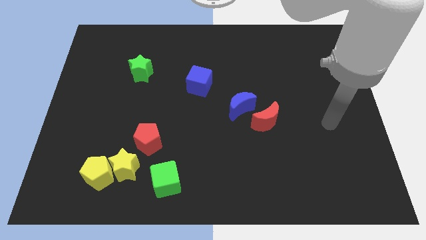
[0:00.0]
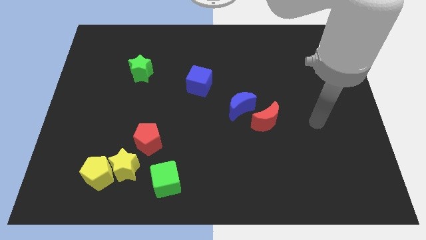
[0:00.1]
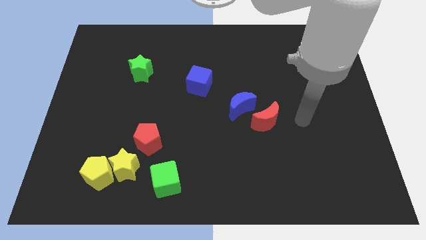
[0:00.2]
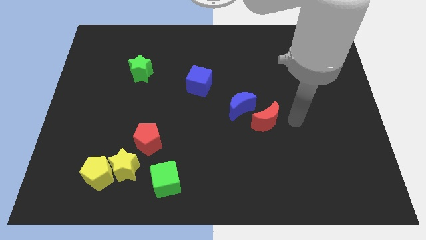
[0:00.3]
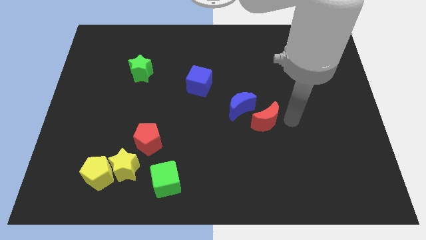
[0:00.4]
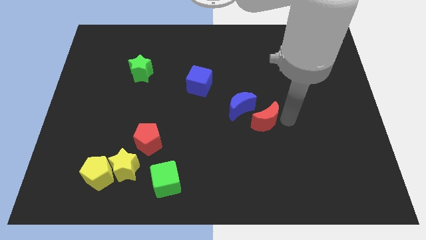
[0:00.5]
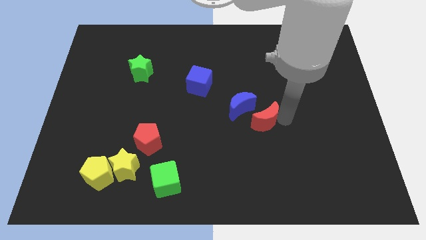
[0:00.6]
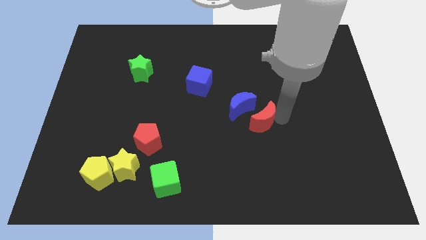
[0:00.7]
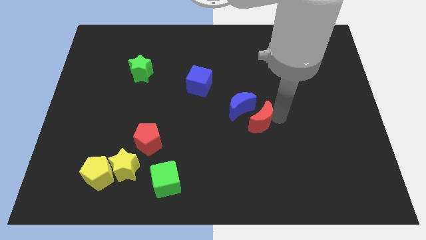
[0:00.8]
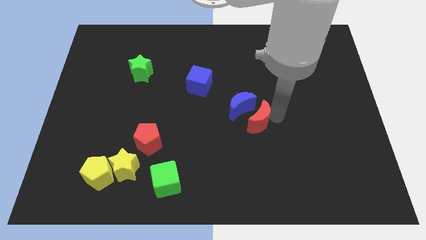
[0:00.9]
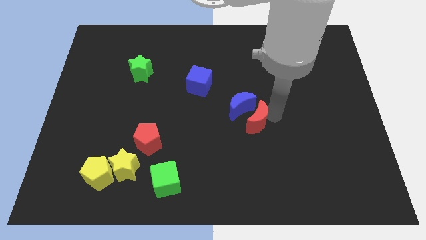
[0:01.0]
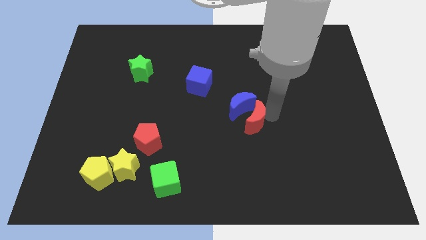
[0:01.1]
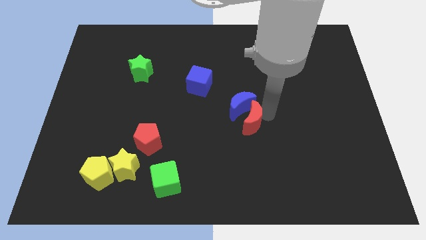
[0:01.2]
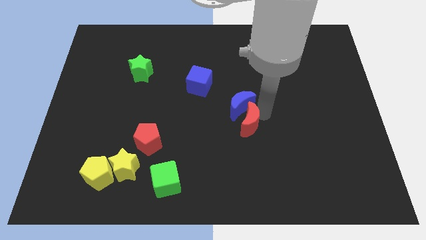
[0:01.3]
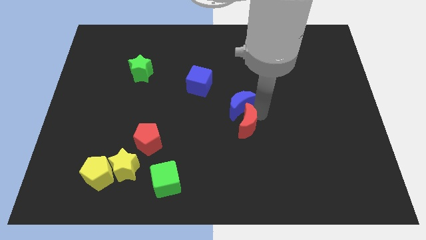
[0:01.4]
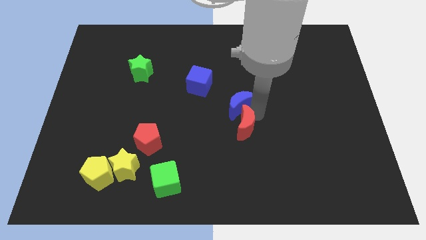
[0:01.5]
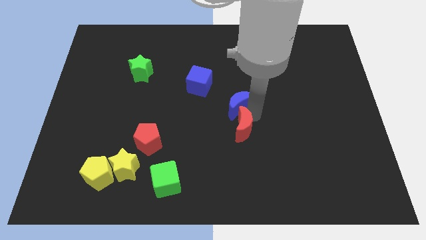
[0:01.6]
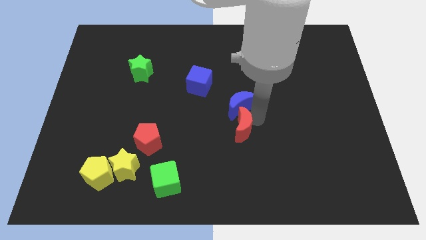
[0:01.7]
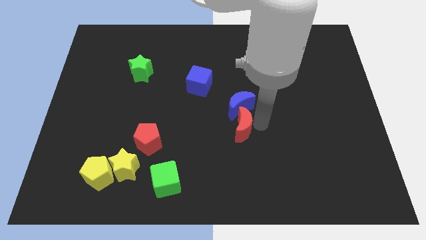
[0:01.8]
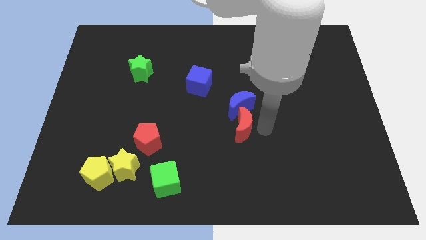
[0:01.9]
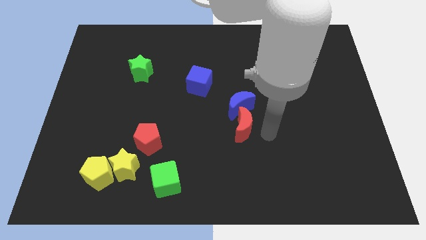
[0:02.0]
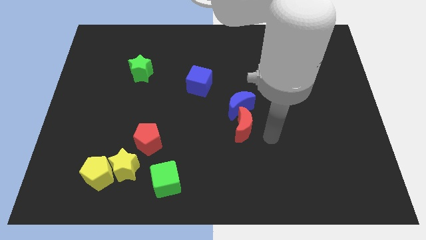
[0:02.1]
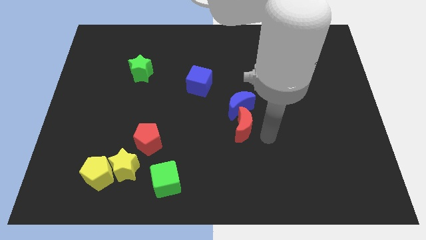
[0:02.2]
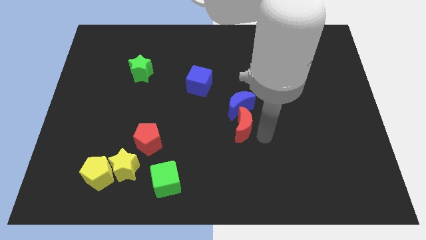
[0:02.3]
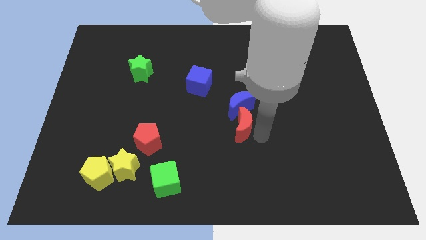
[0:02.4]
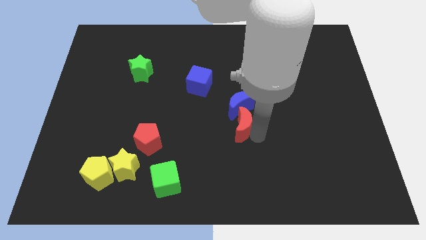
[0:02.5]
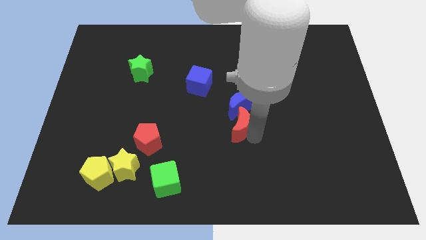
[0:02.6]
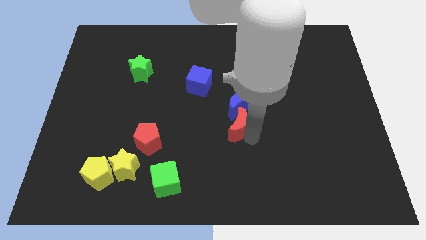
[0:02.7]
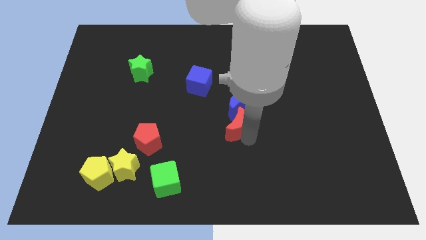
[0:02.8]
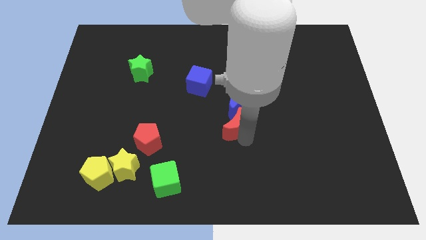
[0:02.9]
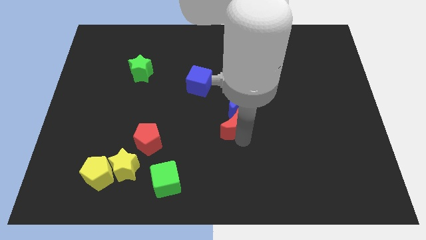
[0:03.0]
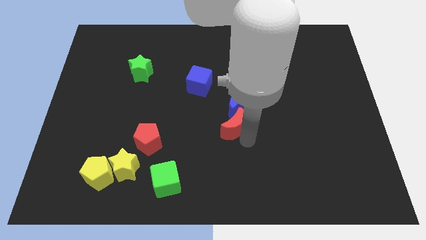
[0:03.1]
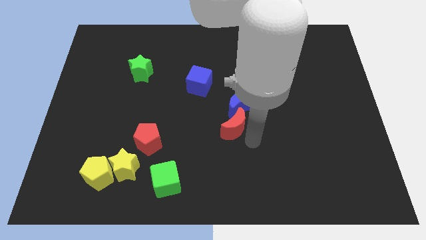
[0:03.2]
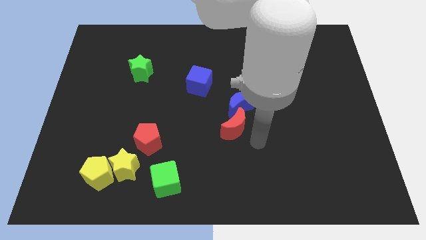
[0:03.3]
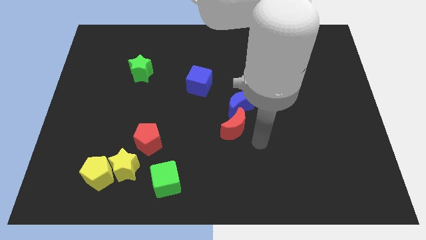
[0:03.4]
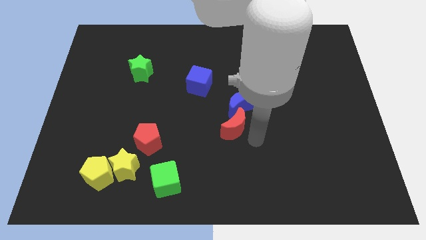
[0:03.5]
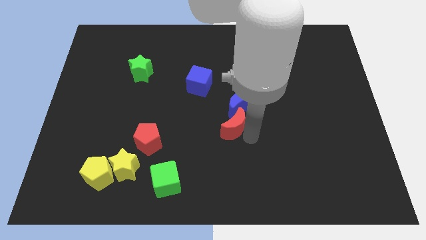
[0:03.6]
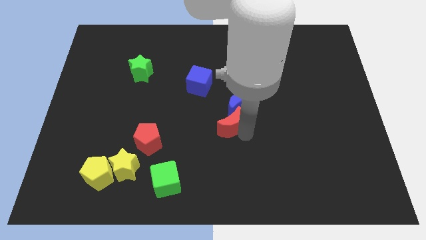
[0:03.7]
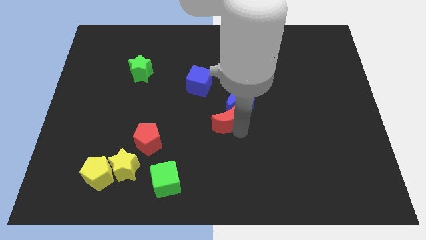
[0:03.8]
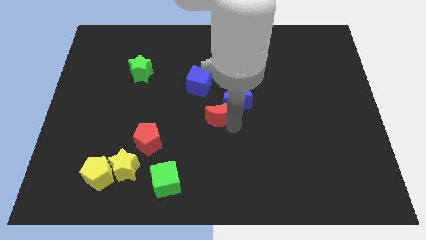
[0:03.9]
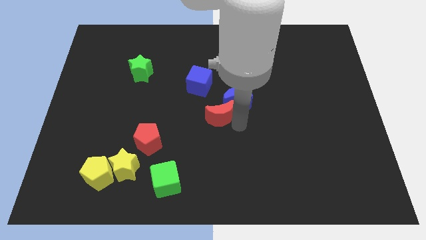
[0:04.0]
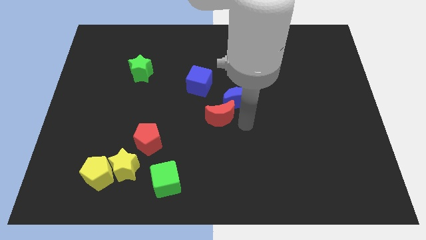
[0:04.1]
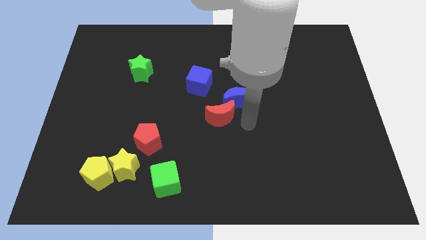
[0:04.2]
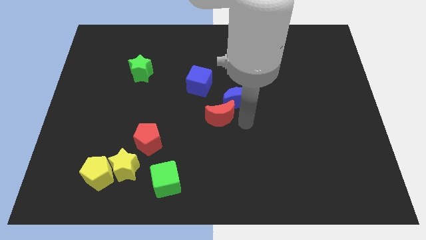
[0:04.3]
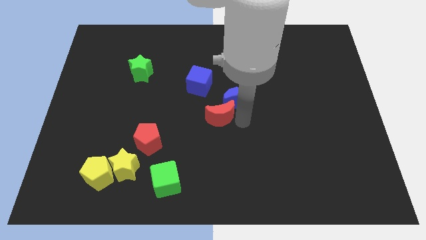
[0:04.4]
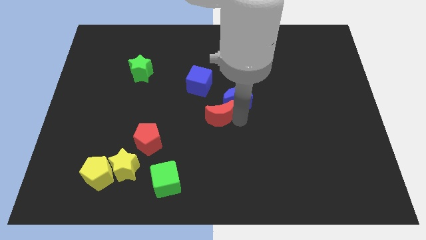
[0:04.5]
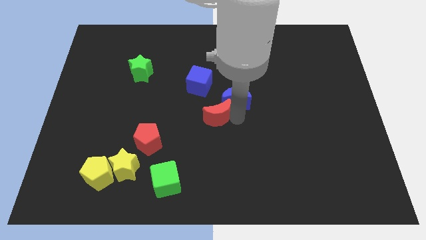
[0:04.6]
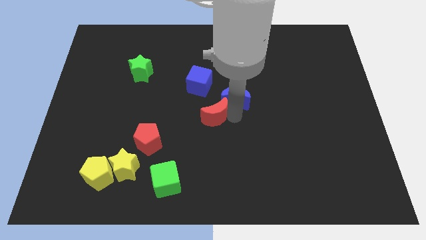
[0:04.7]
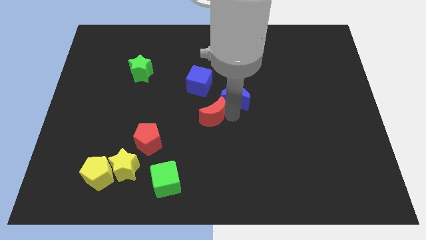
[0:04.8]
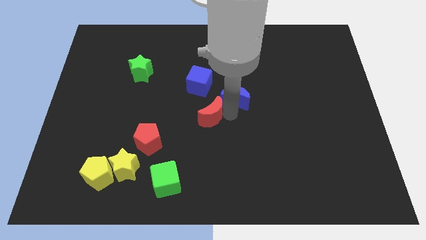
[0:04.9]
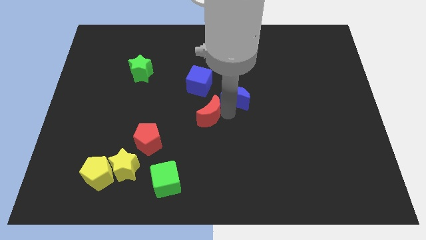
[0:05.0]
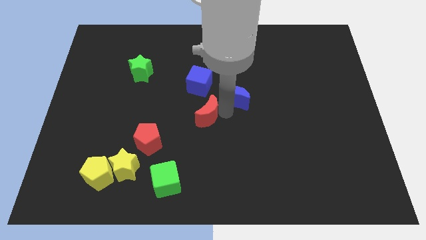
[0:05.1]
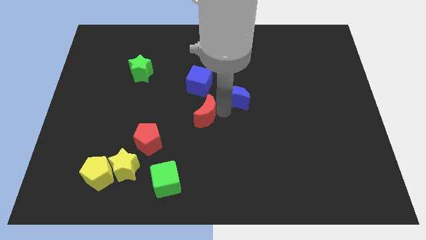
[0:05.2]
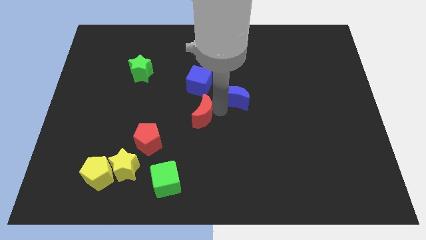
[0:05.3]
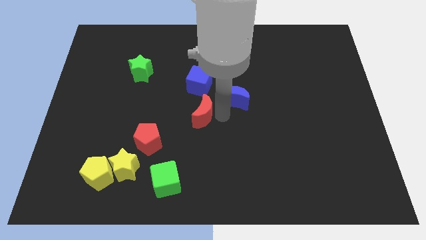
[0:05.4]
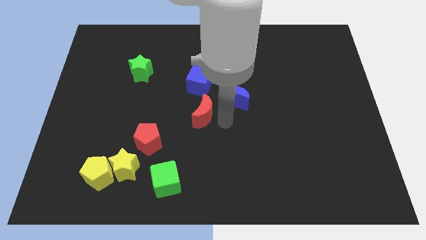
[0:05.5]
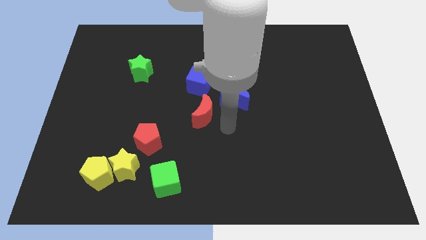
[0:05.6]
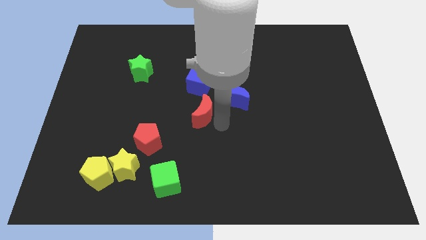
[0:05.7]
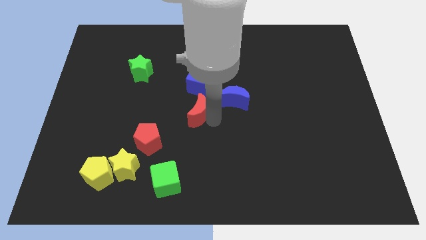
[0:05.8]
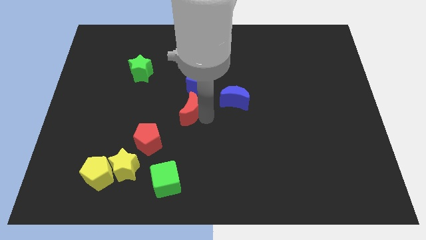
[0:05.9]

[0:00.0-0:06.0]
move the red moon to the bottom left of the blue cube
